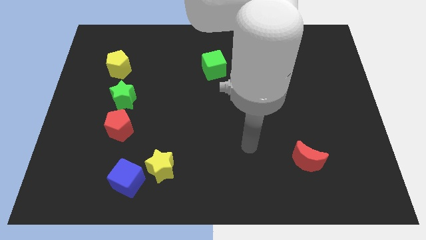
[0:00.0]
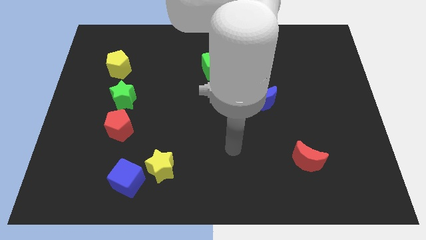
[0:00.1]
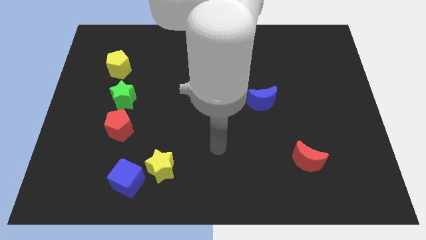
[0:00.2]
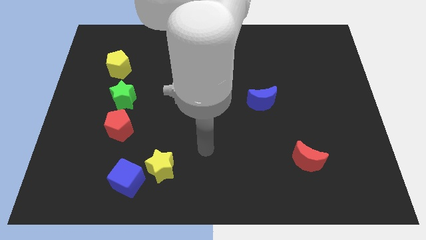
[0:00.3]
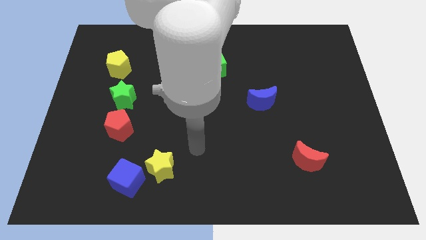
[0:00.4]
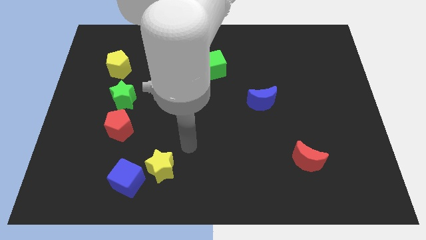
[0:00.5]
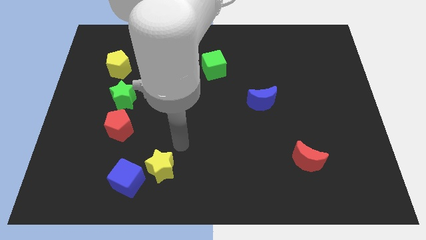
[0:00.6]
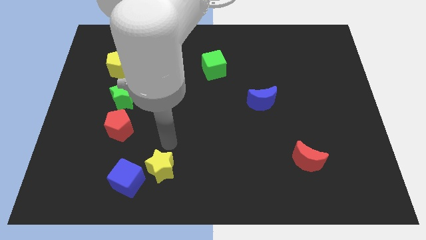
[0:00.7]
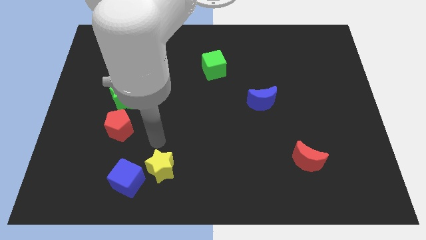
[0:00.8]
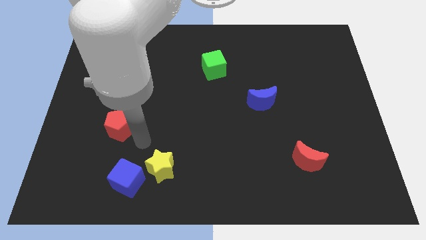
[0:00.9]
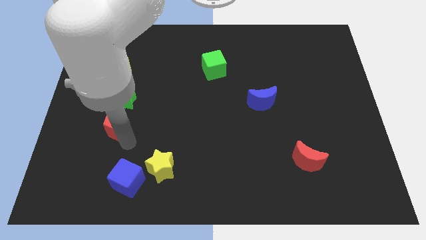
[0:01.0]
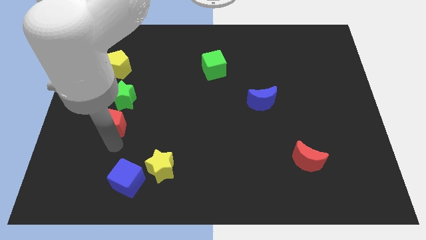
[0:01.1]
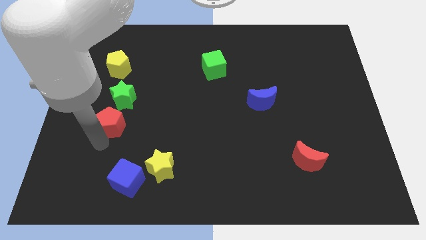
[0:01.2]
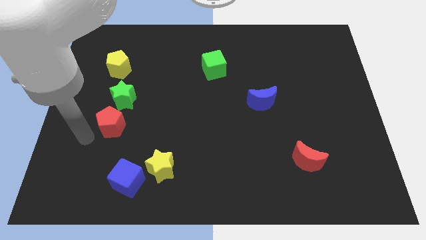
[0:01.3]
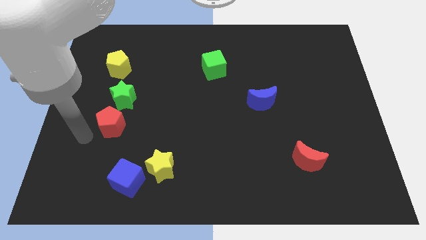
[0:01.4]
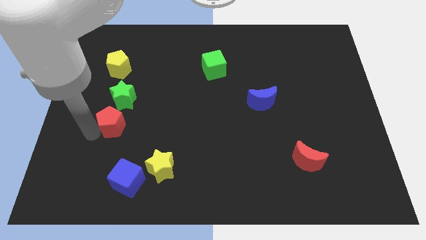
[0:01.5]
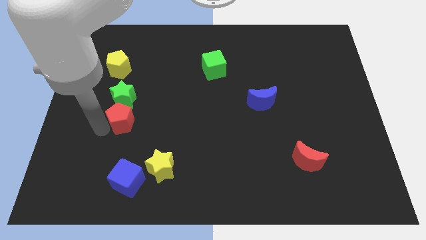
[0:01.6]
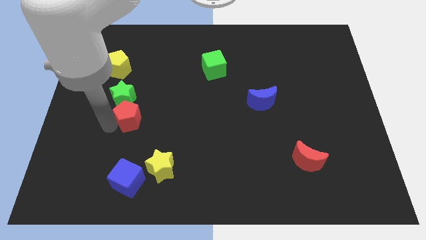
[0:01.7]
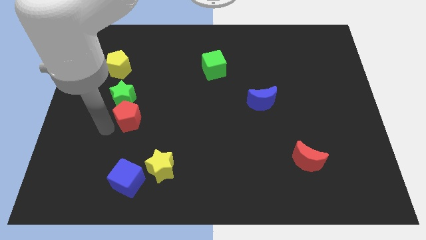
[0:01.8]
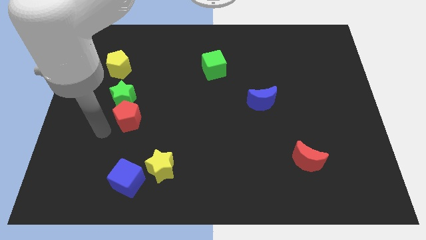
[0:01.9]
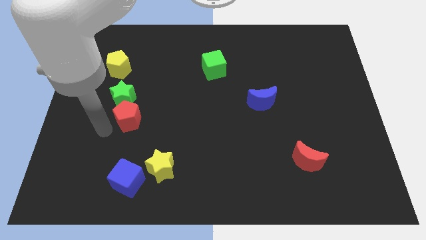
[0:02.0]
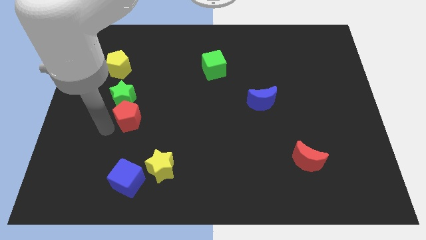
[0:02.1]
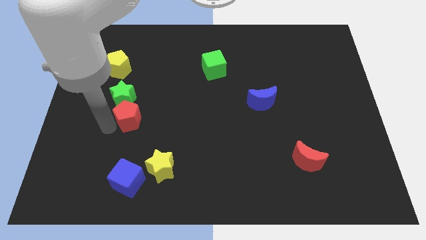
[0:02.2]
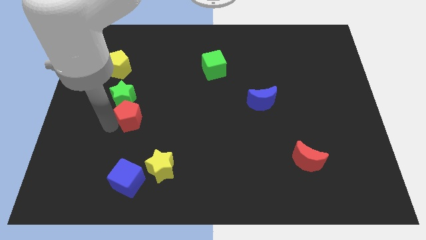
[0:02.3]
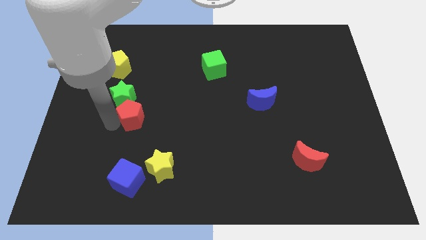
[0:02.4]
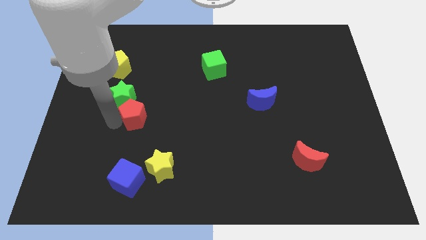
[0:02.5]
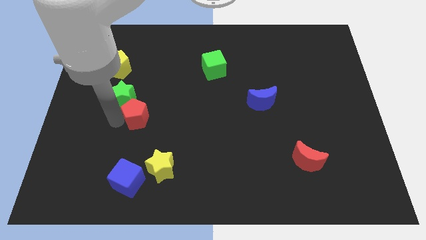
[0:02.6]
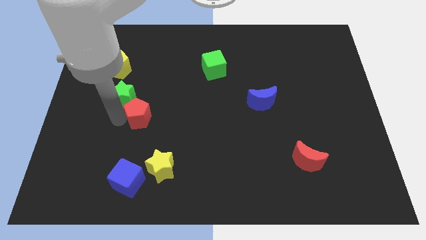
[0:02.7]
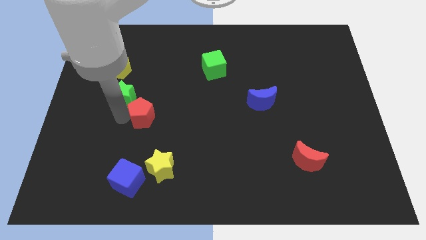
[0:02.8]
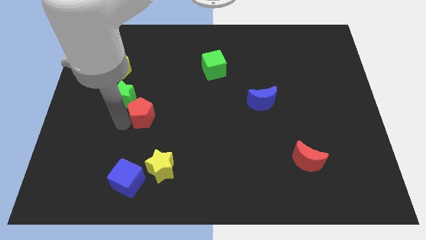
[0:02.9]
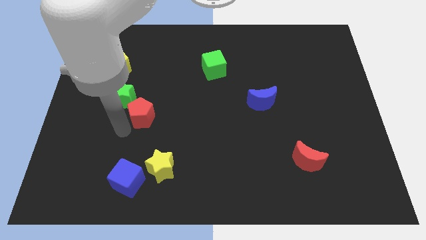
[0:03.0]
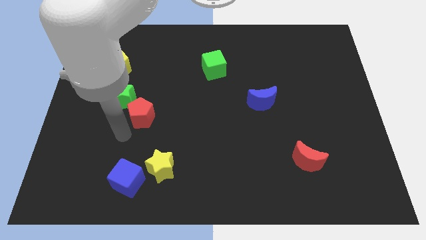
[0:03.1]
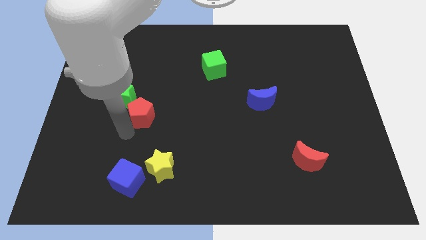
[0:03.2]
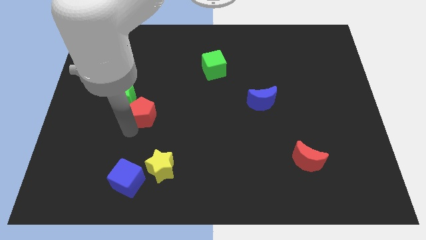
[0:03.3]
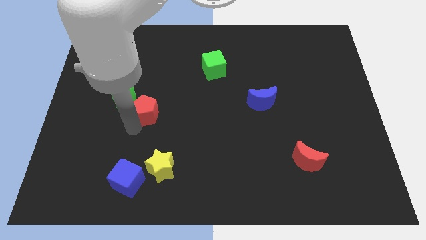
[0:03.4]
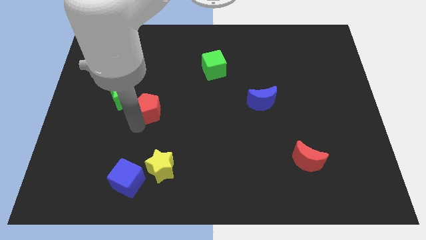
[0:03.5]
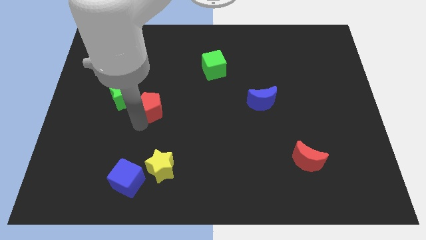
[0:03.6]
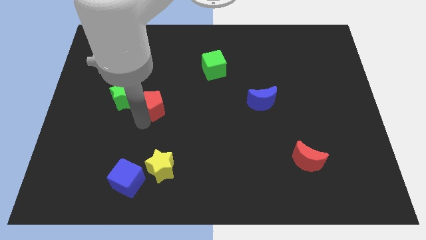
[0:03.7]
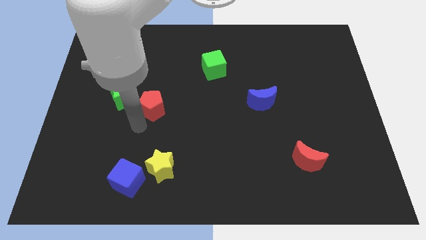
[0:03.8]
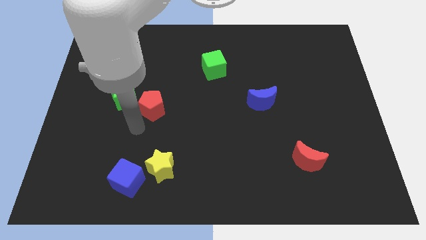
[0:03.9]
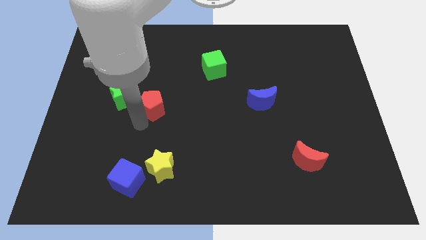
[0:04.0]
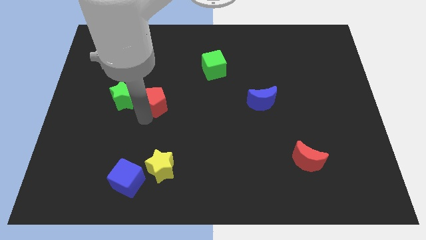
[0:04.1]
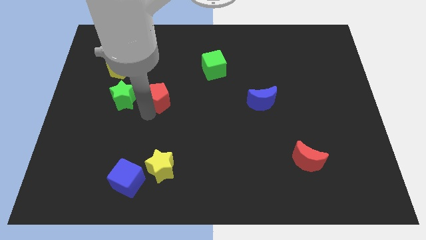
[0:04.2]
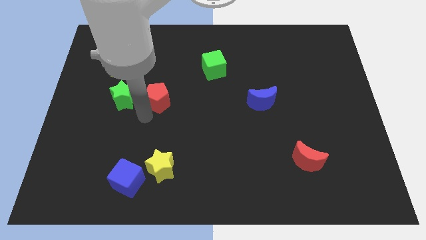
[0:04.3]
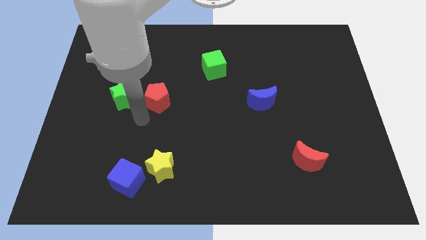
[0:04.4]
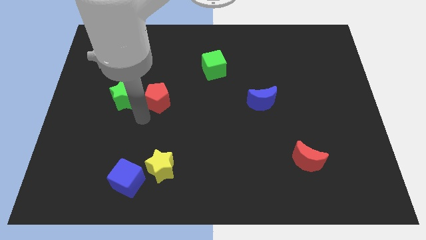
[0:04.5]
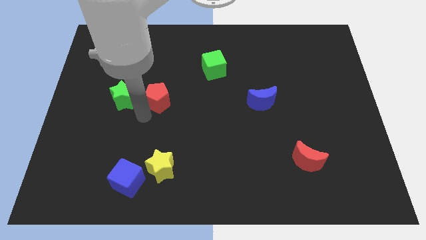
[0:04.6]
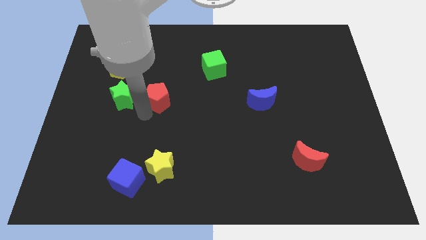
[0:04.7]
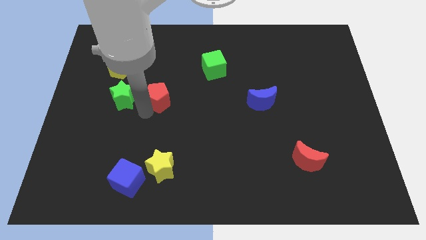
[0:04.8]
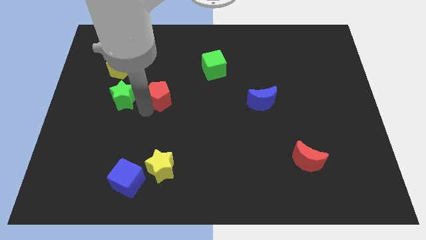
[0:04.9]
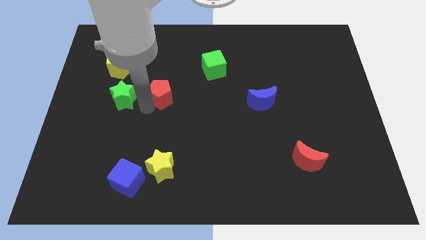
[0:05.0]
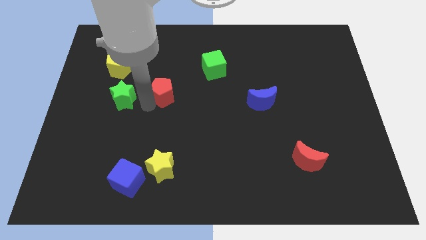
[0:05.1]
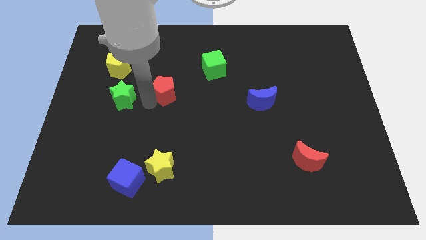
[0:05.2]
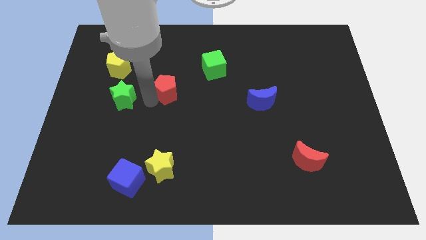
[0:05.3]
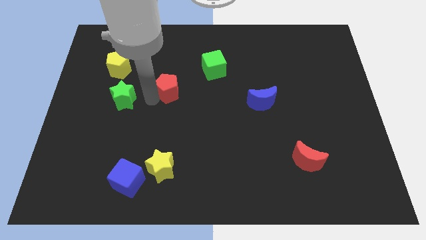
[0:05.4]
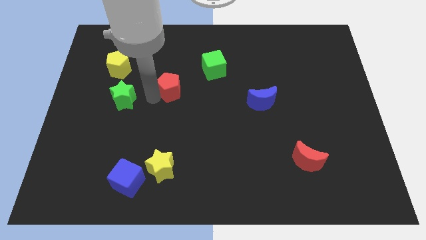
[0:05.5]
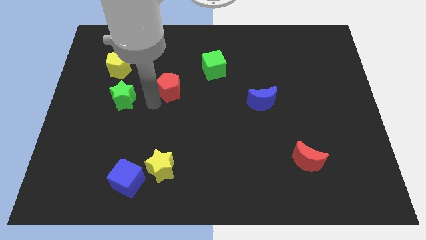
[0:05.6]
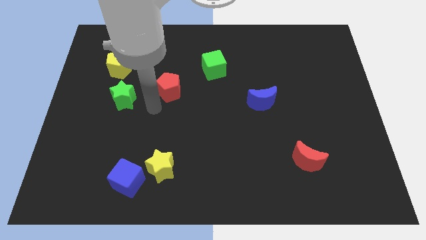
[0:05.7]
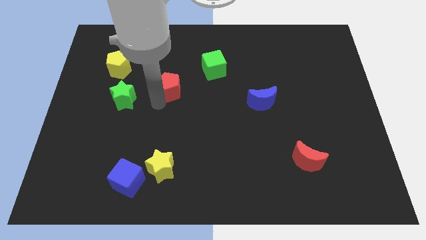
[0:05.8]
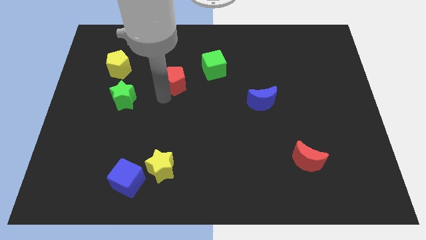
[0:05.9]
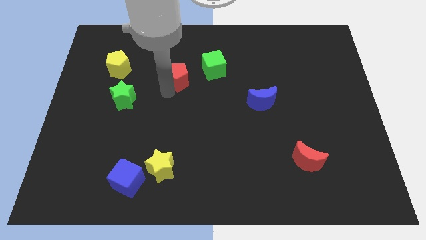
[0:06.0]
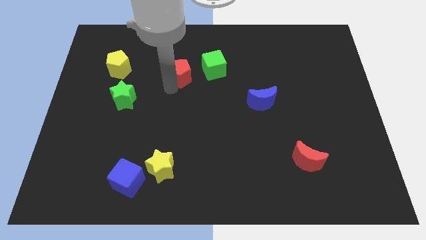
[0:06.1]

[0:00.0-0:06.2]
slide the red pentagon diagonally up and to the right

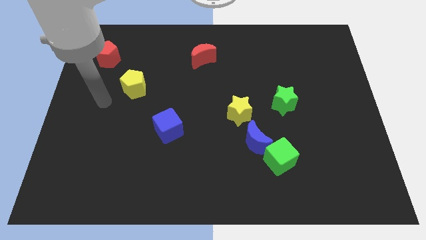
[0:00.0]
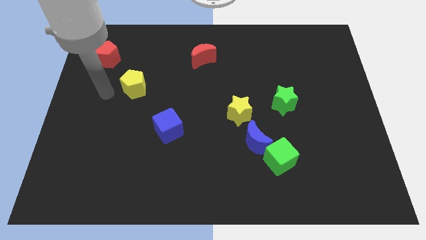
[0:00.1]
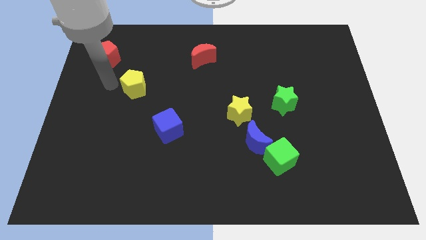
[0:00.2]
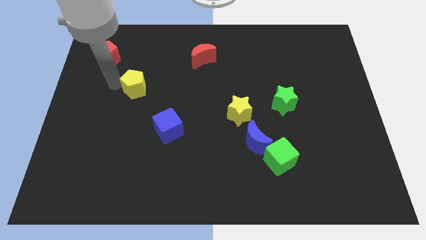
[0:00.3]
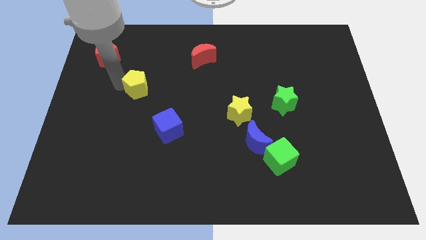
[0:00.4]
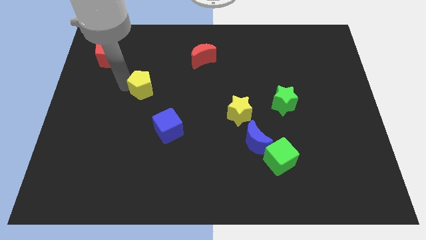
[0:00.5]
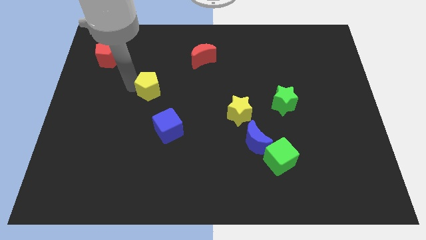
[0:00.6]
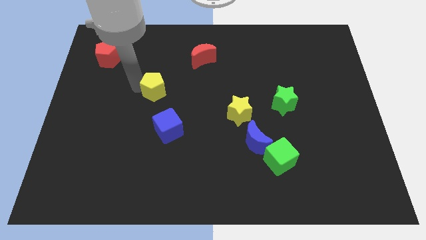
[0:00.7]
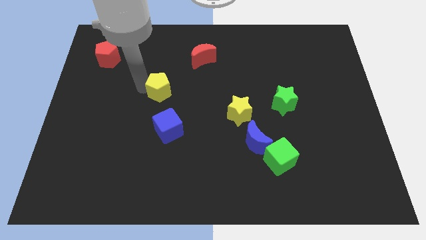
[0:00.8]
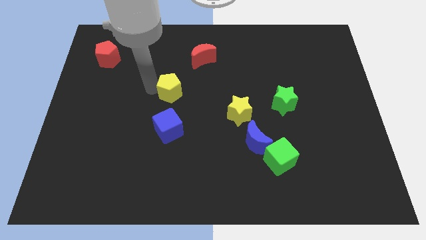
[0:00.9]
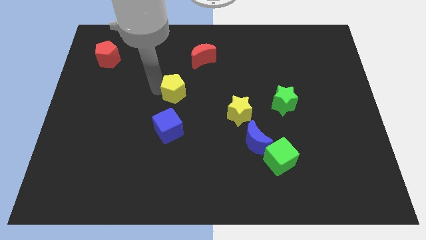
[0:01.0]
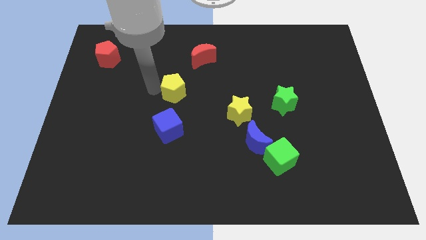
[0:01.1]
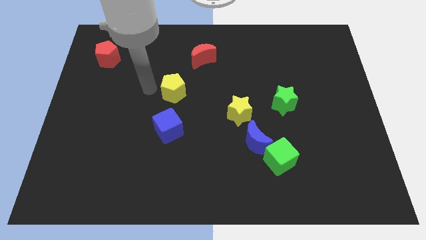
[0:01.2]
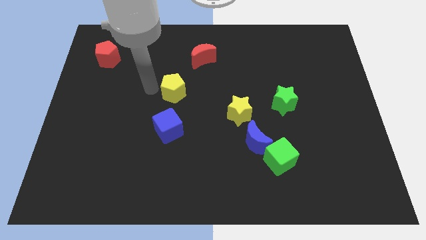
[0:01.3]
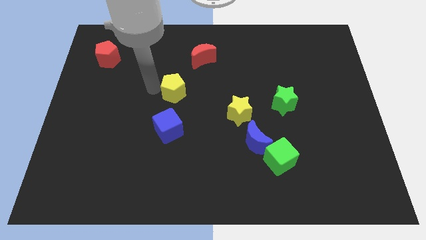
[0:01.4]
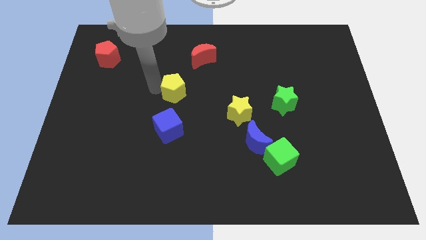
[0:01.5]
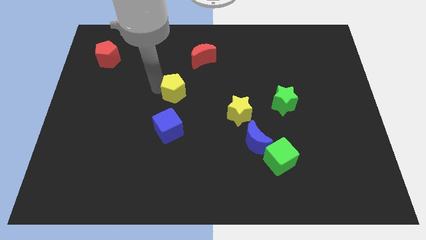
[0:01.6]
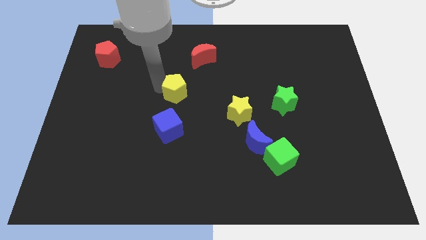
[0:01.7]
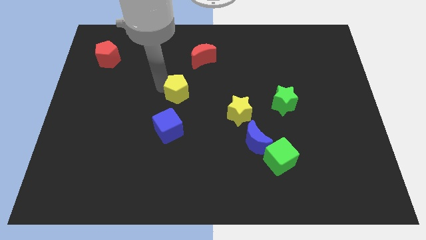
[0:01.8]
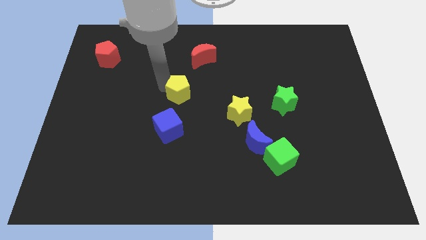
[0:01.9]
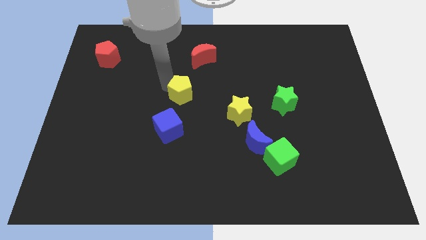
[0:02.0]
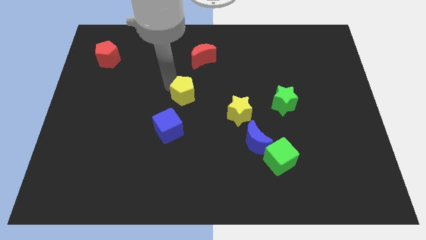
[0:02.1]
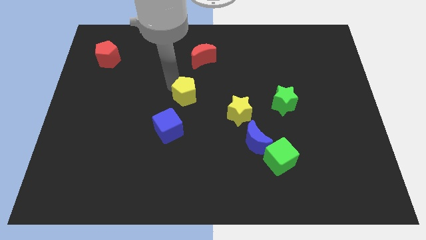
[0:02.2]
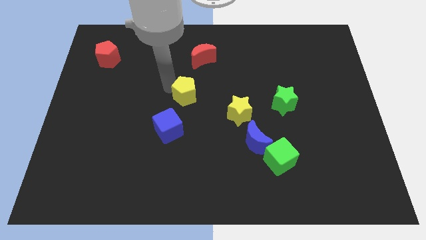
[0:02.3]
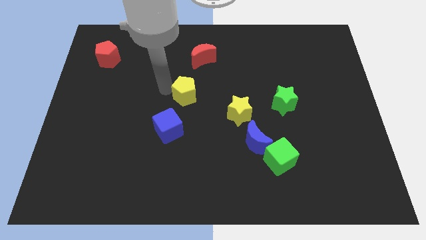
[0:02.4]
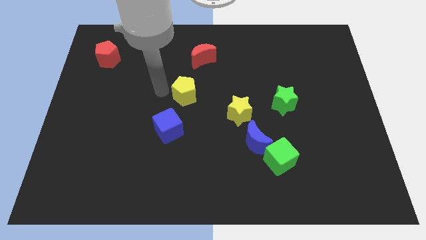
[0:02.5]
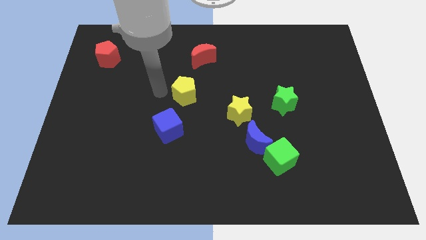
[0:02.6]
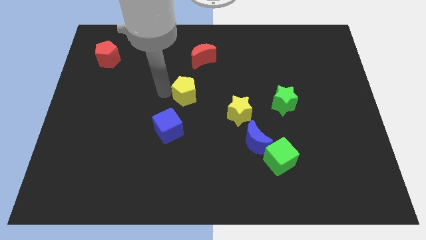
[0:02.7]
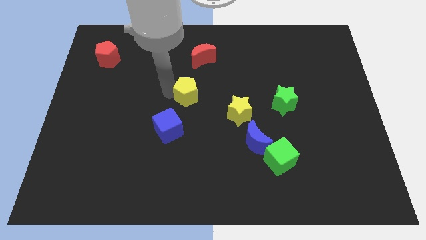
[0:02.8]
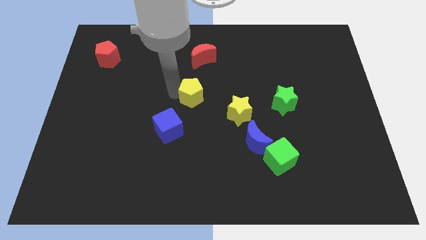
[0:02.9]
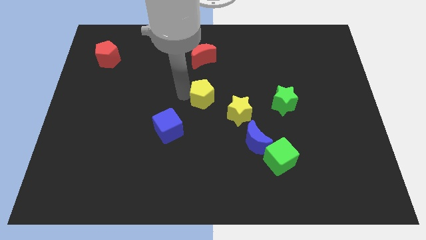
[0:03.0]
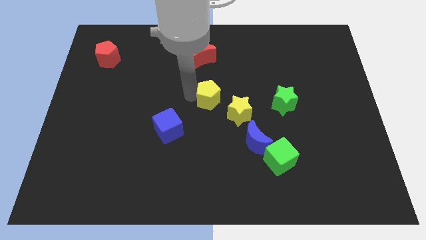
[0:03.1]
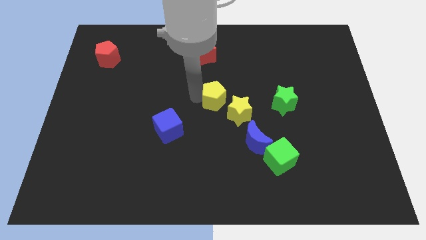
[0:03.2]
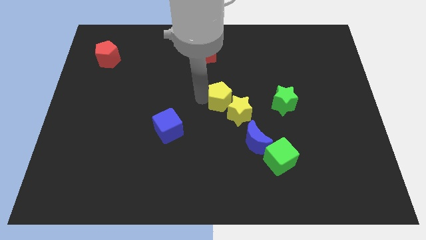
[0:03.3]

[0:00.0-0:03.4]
slide the yellow pentagon to the right
